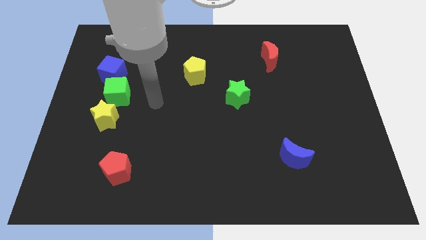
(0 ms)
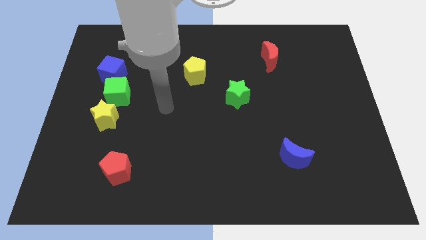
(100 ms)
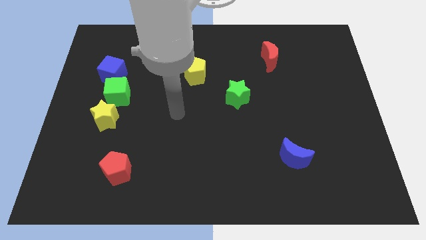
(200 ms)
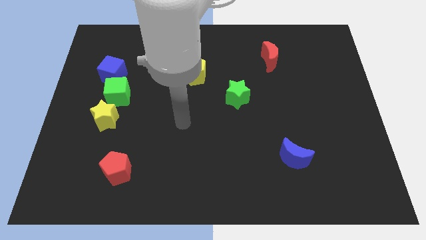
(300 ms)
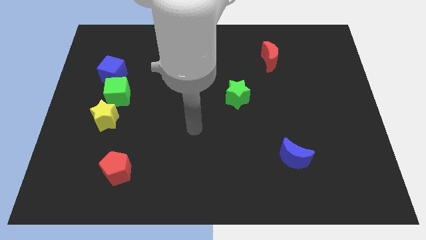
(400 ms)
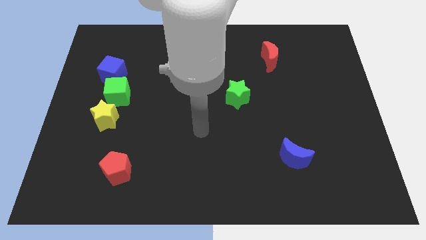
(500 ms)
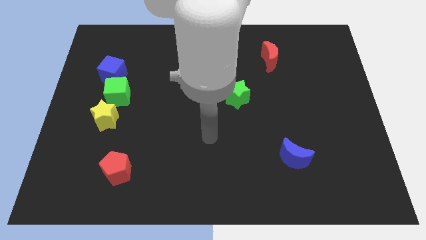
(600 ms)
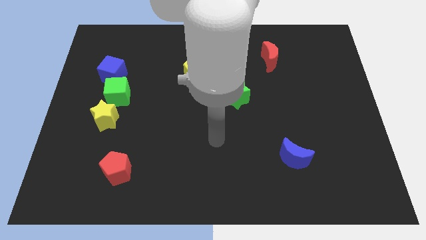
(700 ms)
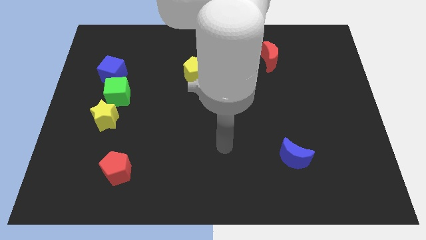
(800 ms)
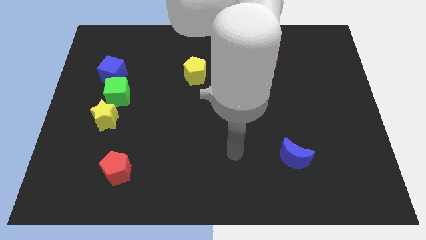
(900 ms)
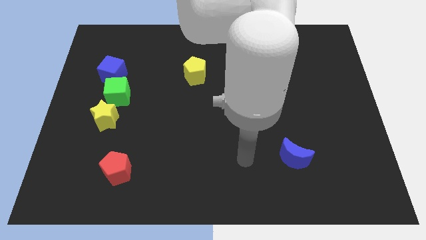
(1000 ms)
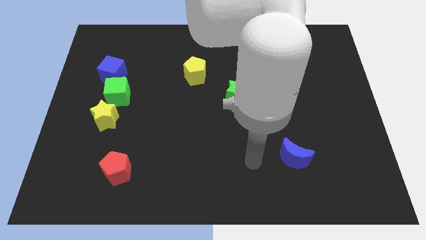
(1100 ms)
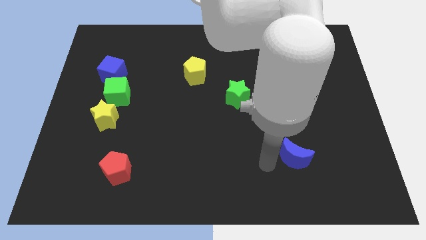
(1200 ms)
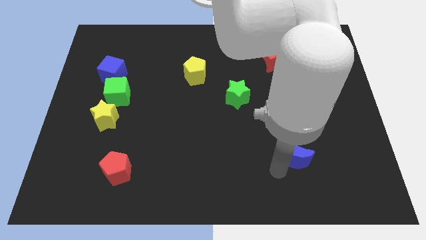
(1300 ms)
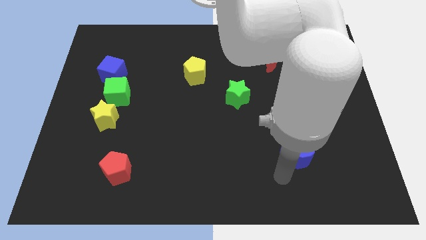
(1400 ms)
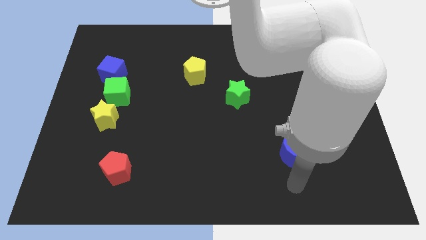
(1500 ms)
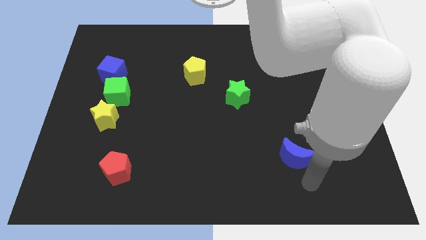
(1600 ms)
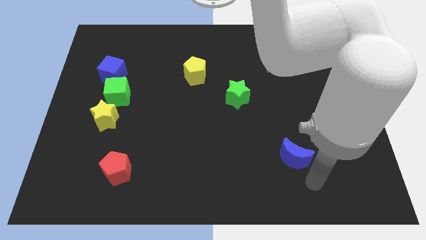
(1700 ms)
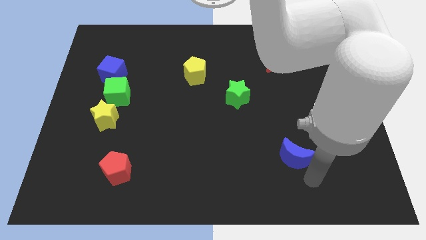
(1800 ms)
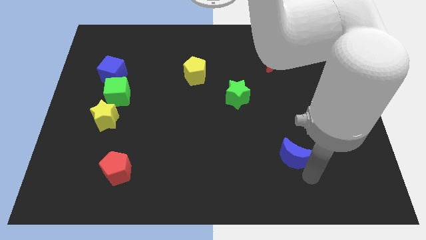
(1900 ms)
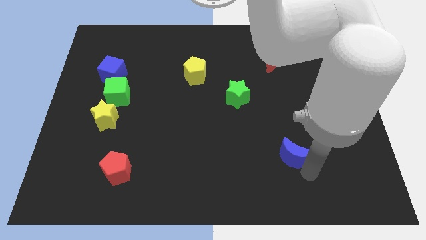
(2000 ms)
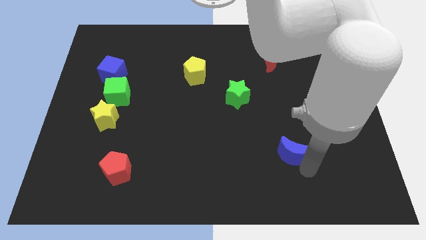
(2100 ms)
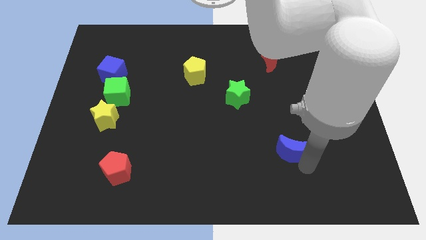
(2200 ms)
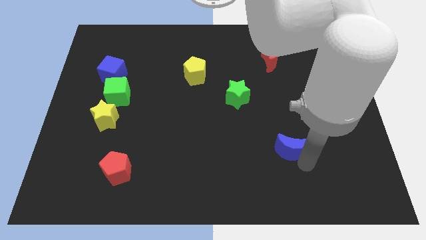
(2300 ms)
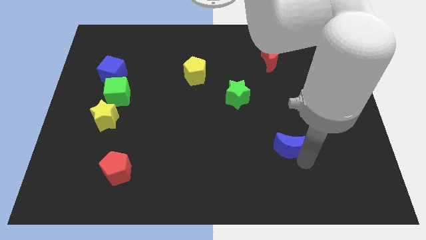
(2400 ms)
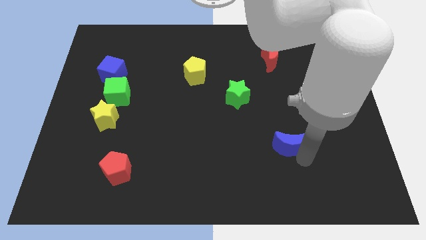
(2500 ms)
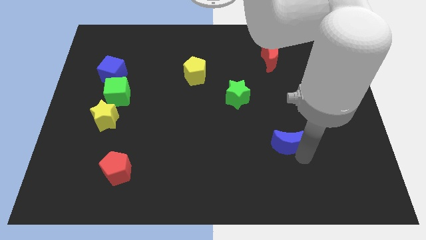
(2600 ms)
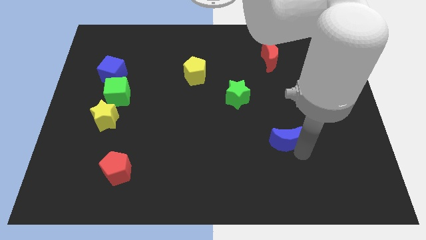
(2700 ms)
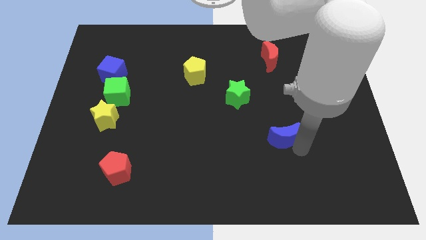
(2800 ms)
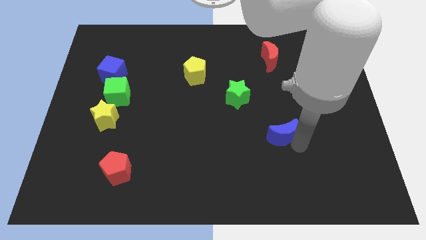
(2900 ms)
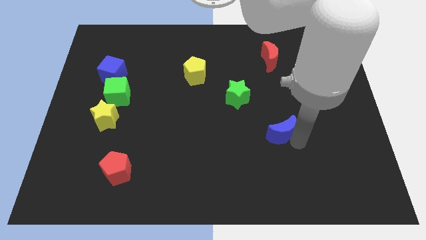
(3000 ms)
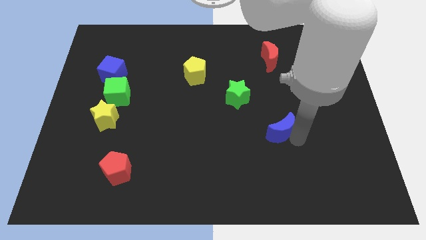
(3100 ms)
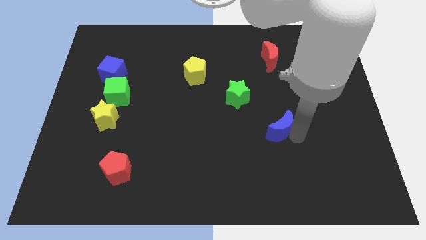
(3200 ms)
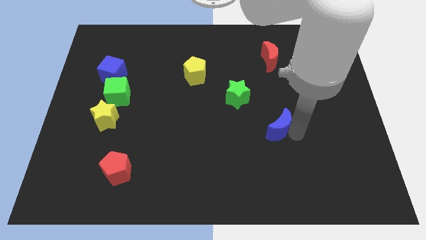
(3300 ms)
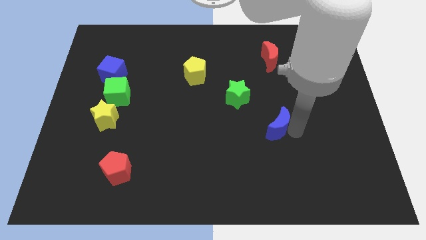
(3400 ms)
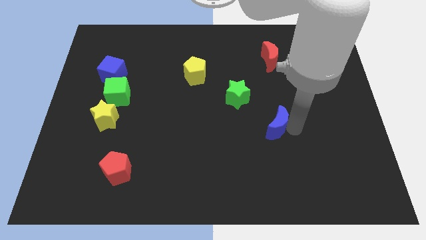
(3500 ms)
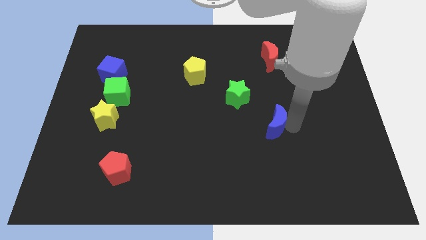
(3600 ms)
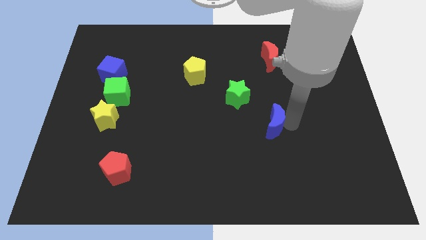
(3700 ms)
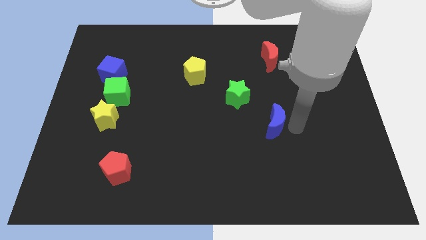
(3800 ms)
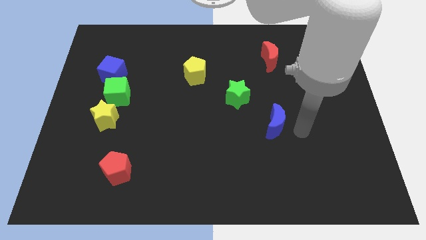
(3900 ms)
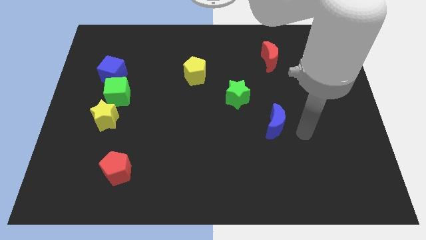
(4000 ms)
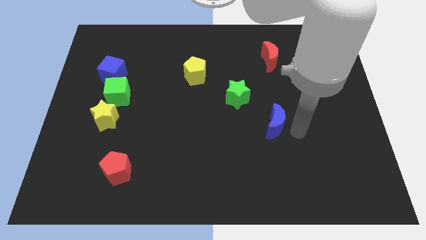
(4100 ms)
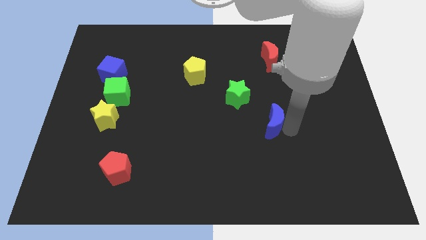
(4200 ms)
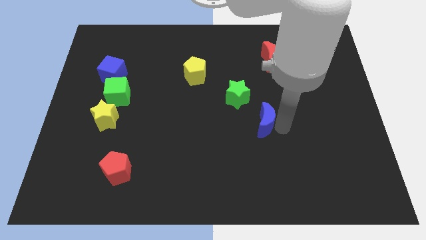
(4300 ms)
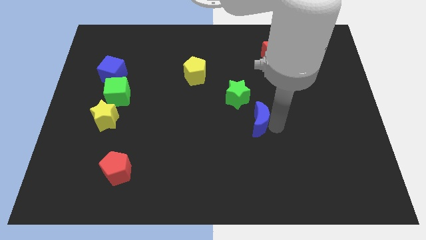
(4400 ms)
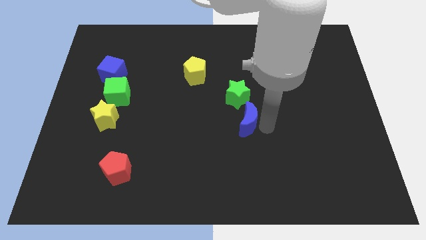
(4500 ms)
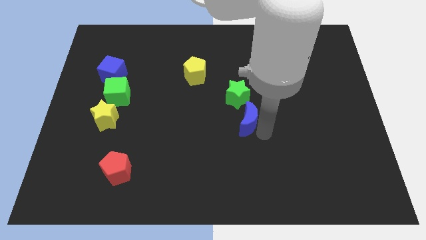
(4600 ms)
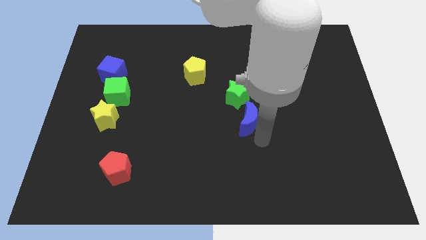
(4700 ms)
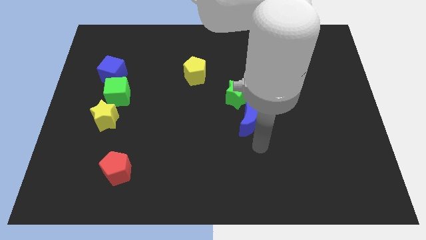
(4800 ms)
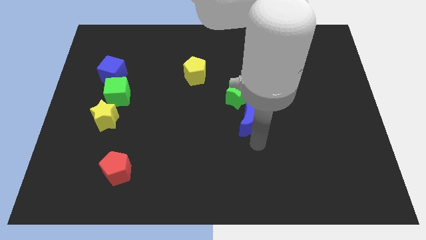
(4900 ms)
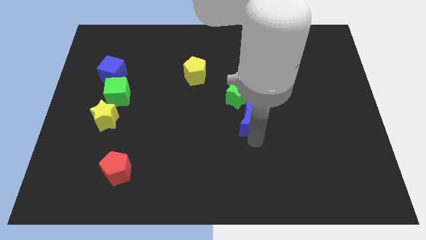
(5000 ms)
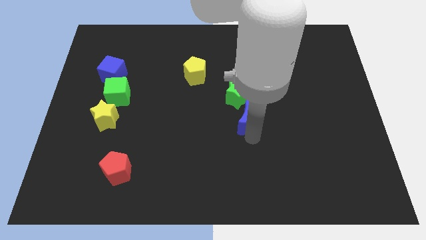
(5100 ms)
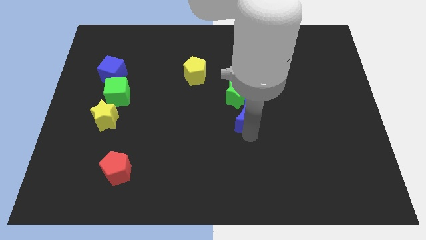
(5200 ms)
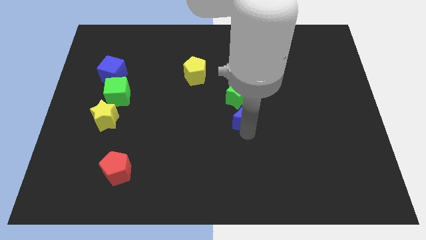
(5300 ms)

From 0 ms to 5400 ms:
push the blue moon next to the green star

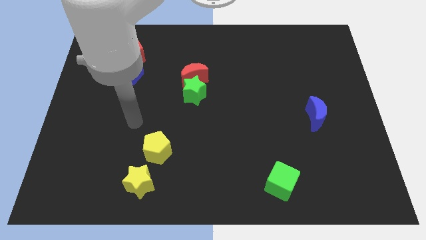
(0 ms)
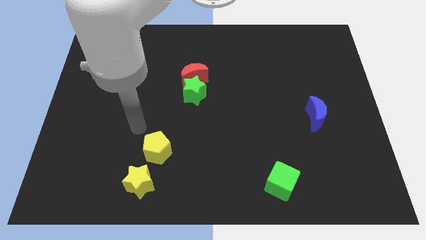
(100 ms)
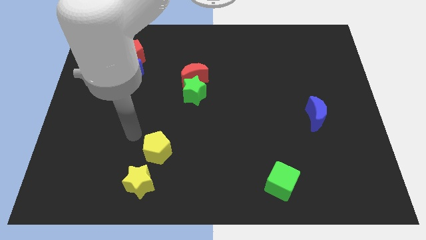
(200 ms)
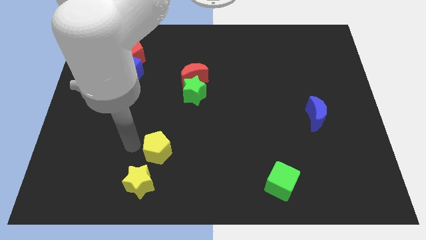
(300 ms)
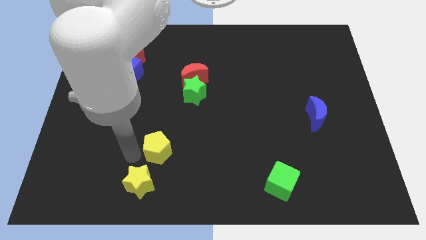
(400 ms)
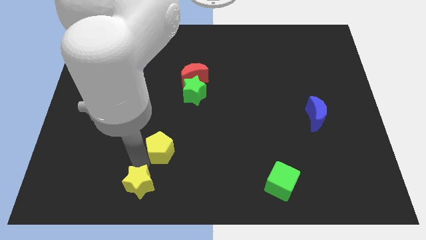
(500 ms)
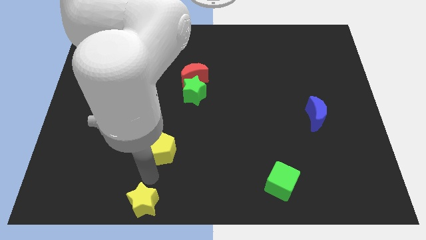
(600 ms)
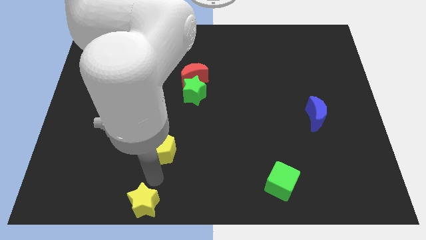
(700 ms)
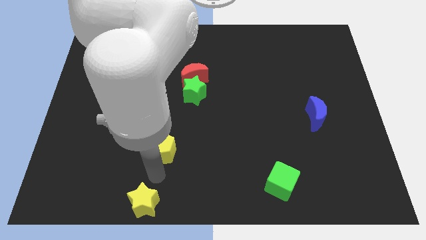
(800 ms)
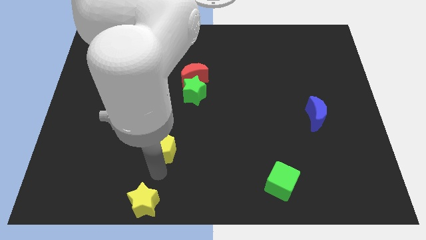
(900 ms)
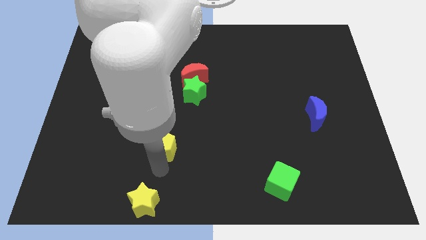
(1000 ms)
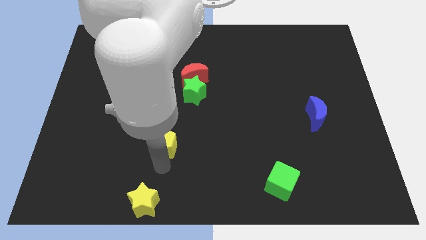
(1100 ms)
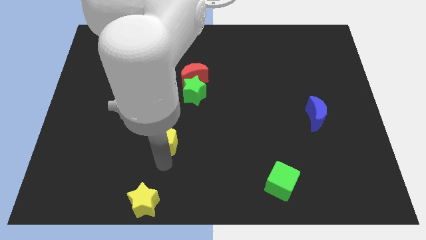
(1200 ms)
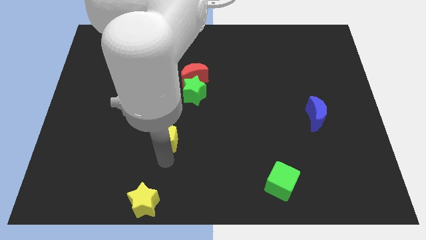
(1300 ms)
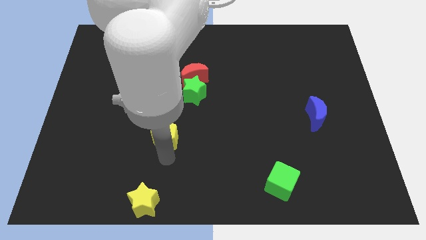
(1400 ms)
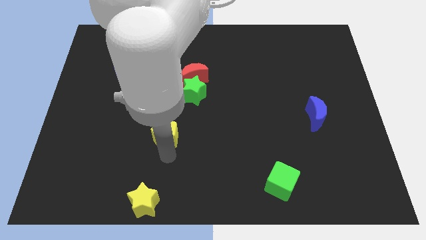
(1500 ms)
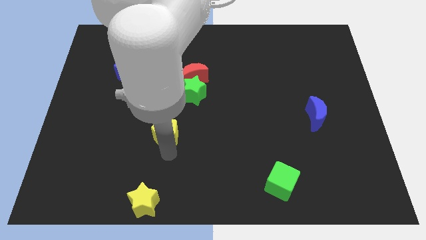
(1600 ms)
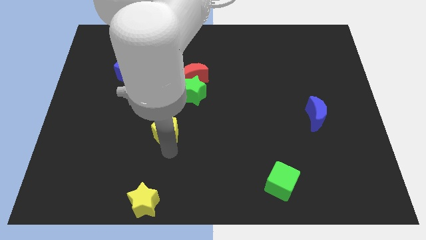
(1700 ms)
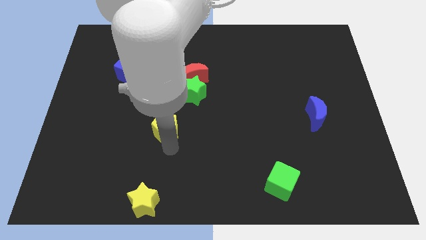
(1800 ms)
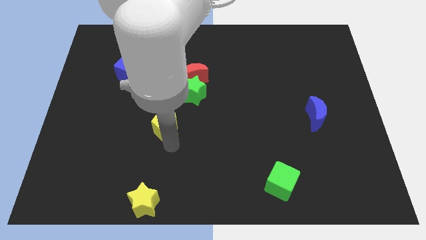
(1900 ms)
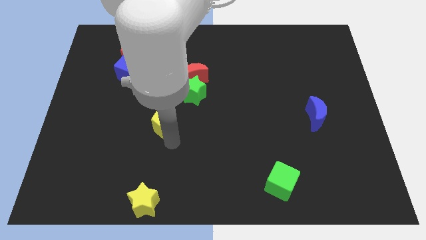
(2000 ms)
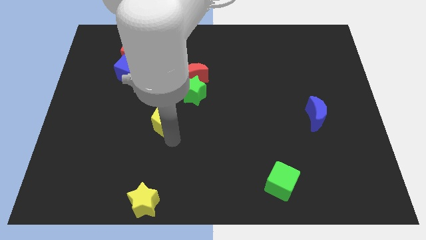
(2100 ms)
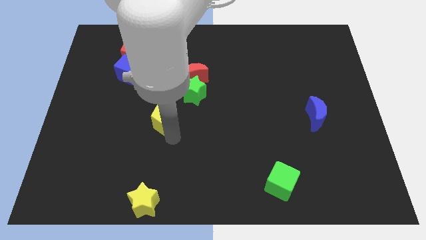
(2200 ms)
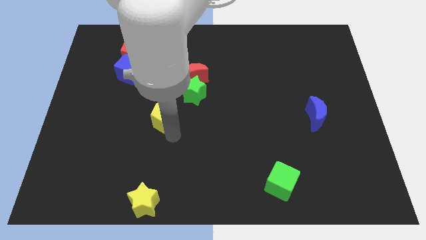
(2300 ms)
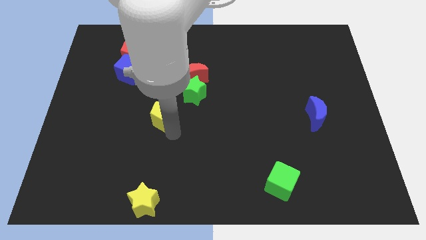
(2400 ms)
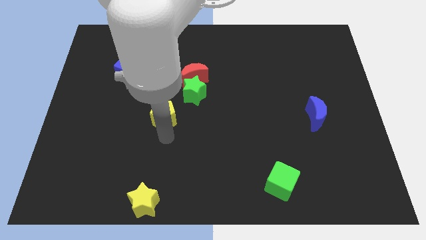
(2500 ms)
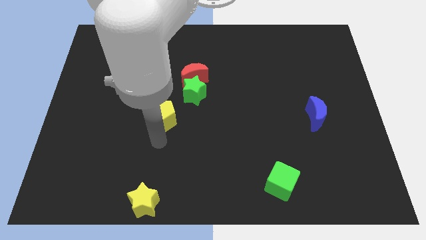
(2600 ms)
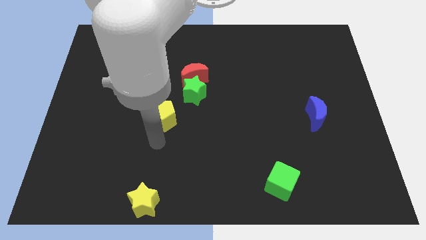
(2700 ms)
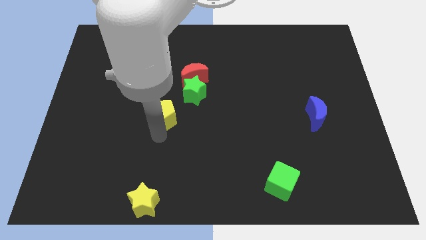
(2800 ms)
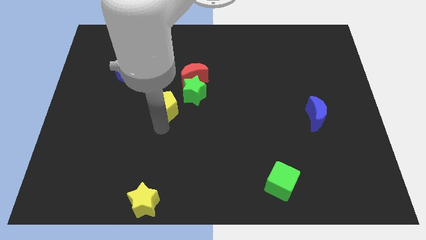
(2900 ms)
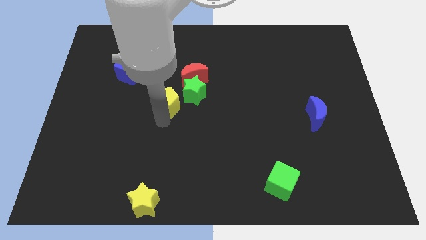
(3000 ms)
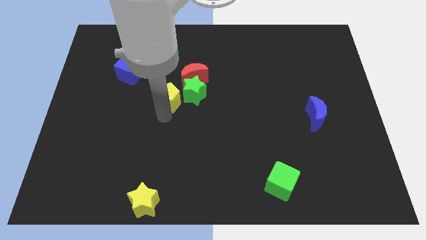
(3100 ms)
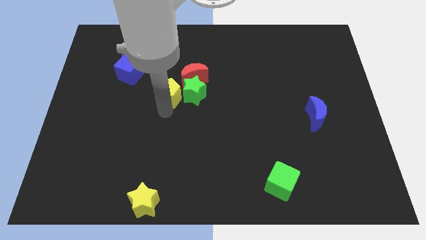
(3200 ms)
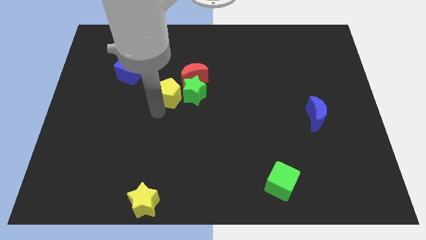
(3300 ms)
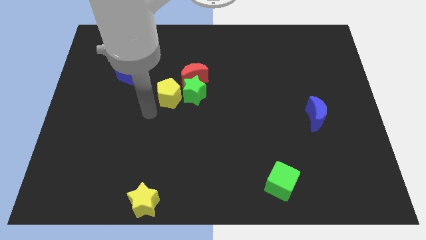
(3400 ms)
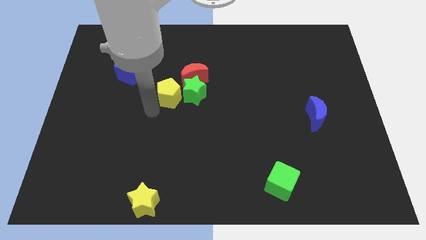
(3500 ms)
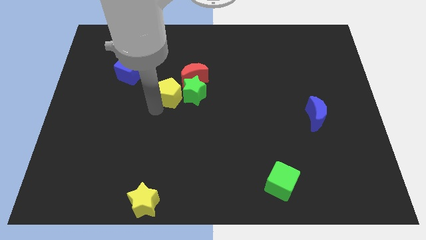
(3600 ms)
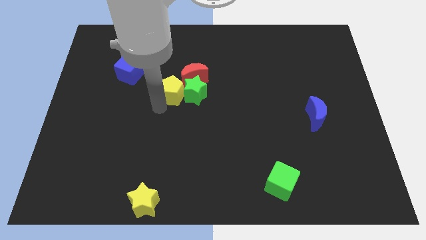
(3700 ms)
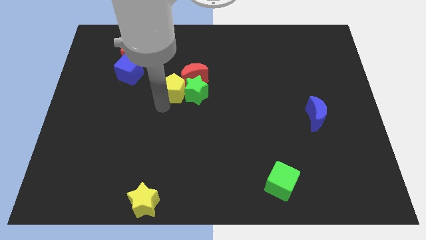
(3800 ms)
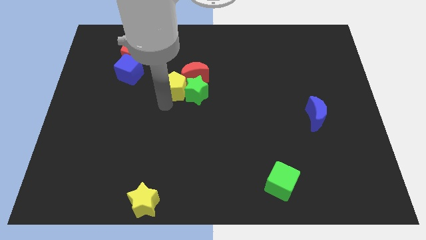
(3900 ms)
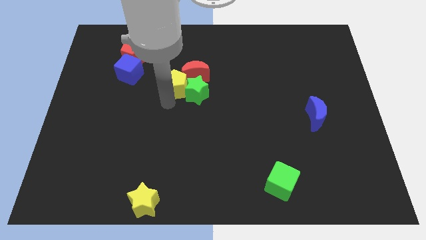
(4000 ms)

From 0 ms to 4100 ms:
move the yellow pentagon to the red moon
